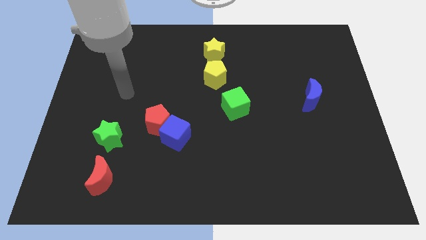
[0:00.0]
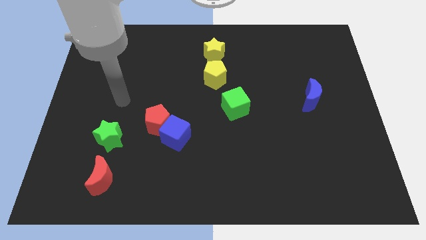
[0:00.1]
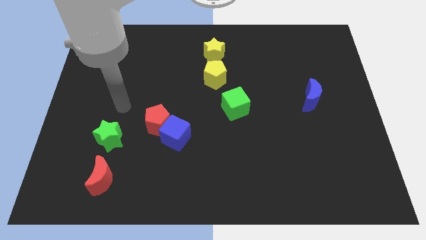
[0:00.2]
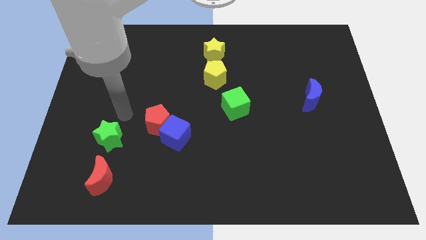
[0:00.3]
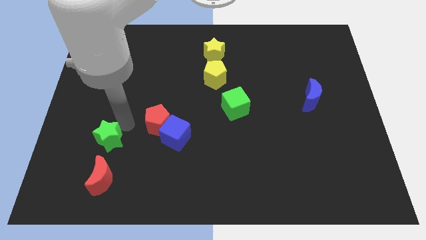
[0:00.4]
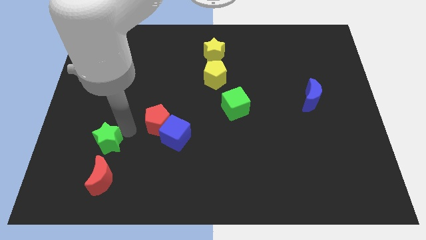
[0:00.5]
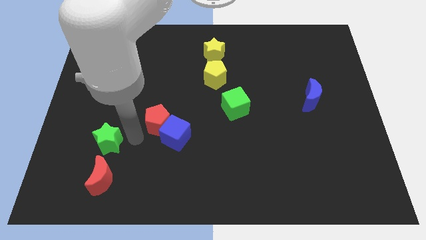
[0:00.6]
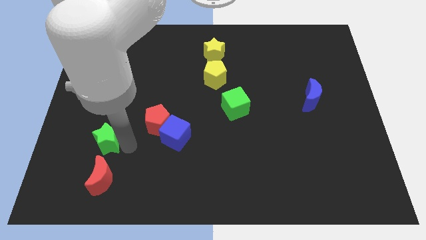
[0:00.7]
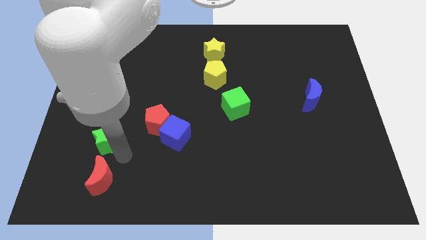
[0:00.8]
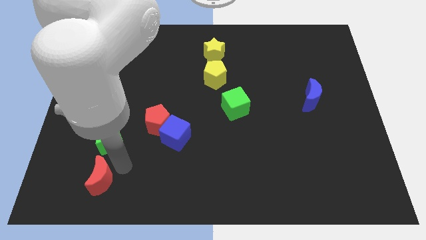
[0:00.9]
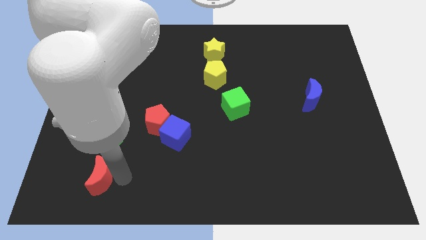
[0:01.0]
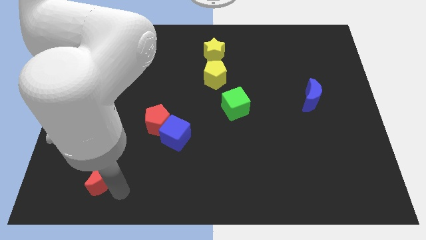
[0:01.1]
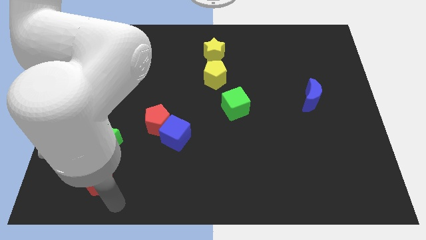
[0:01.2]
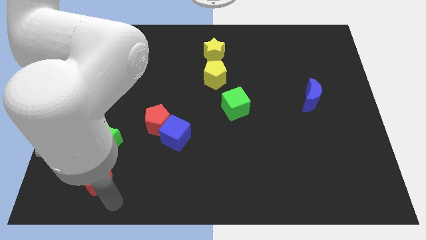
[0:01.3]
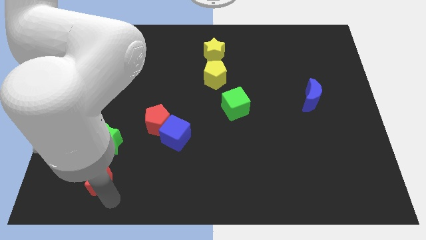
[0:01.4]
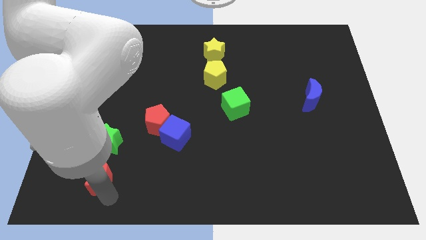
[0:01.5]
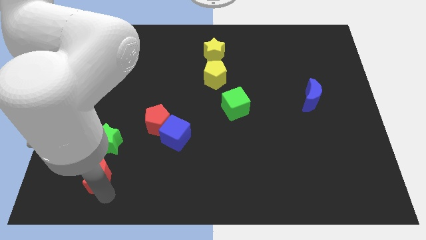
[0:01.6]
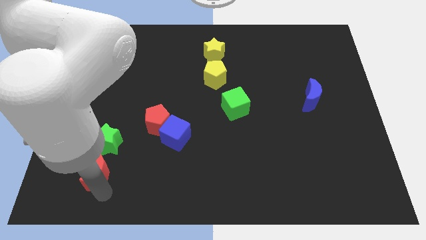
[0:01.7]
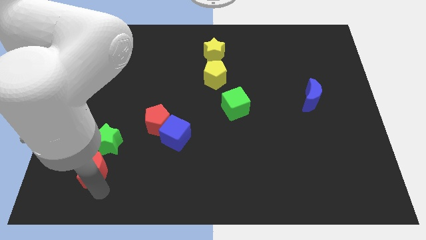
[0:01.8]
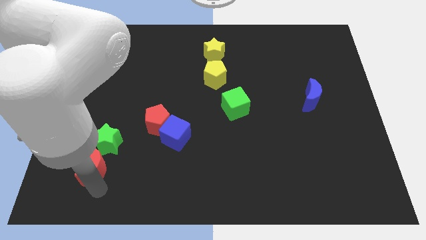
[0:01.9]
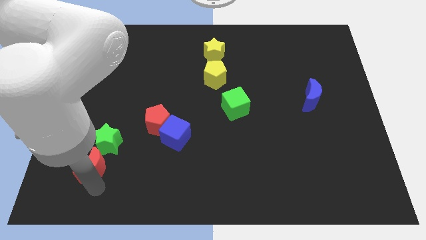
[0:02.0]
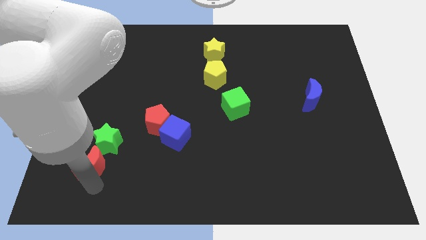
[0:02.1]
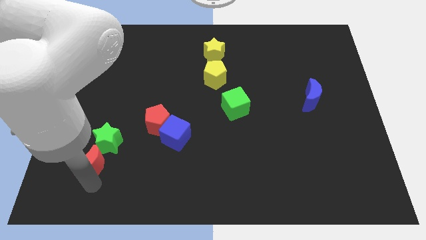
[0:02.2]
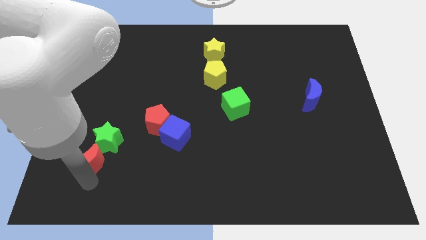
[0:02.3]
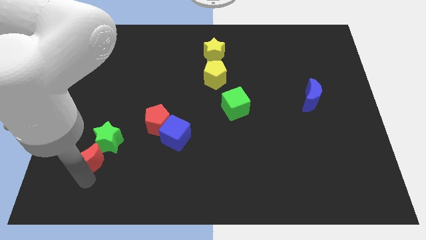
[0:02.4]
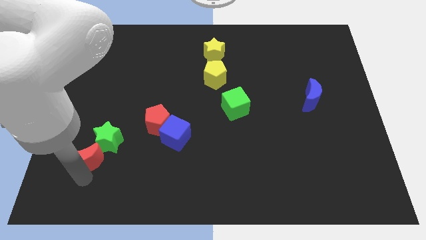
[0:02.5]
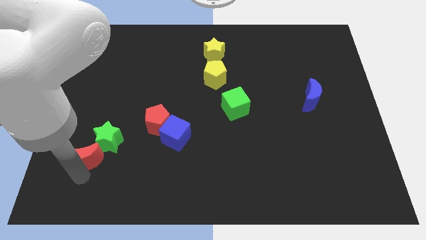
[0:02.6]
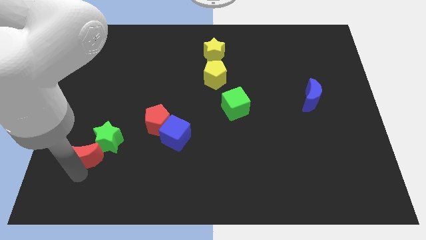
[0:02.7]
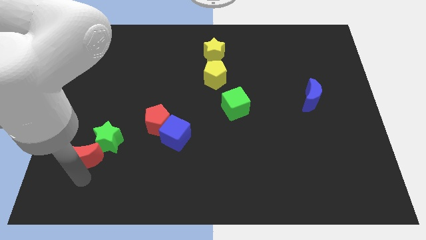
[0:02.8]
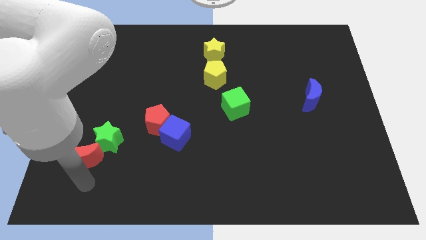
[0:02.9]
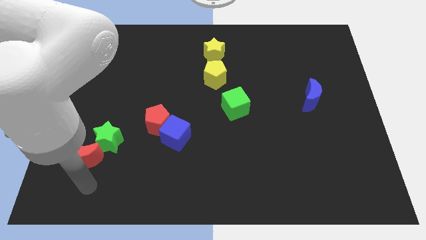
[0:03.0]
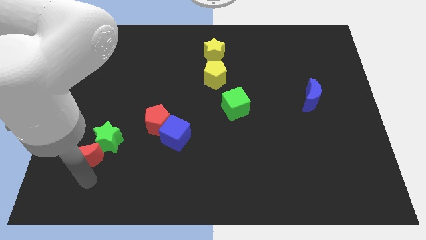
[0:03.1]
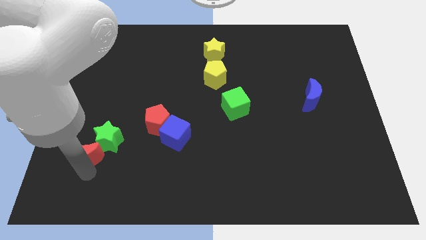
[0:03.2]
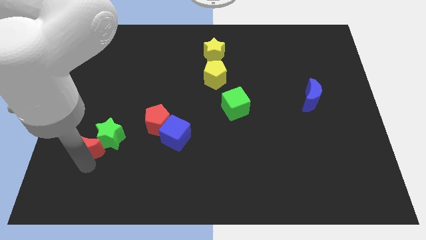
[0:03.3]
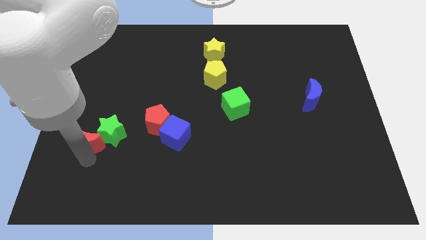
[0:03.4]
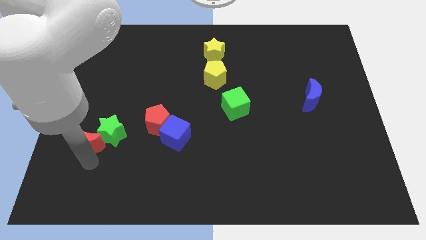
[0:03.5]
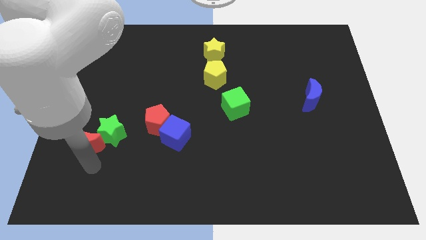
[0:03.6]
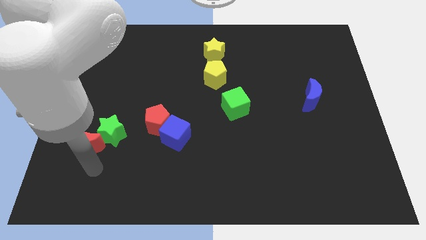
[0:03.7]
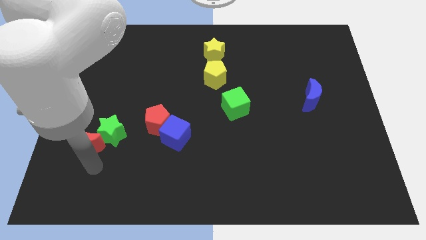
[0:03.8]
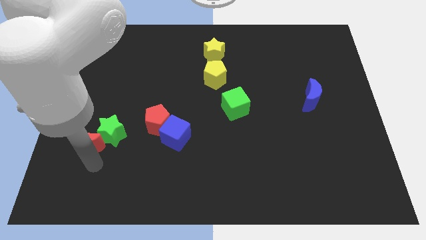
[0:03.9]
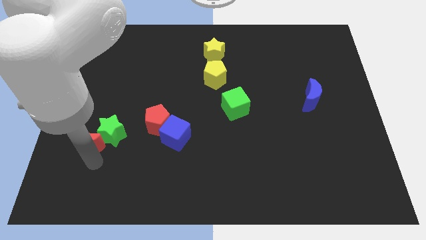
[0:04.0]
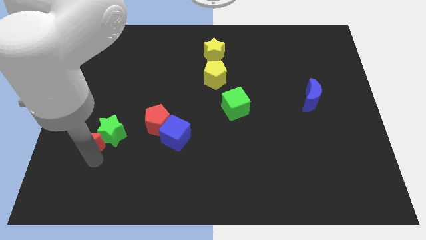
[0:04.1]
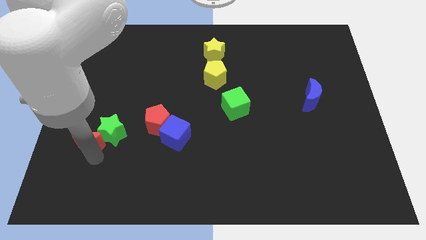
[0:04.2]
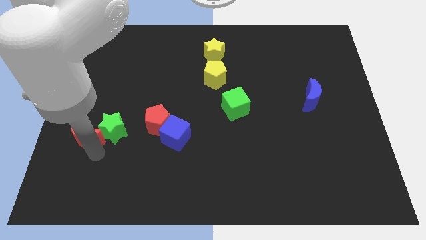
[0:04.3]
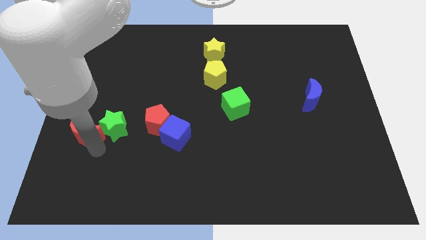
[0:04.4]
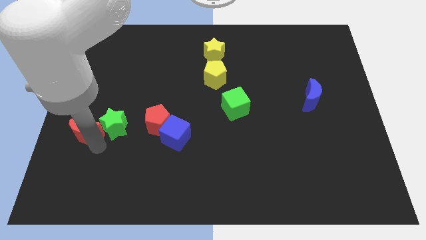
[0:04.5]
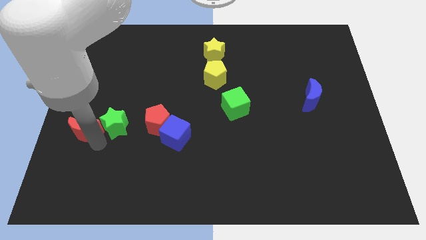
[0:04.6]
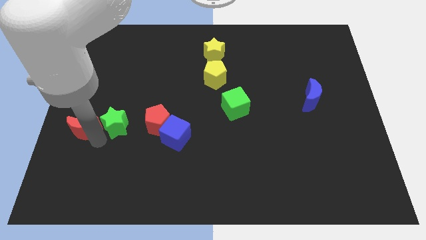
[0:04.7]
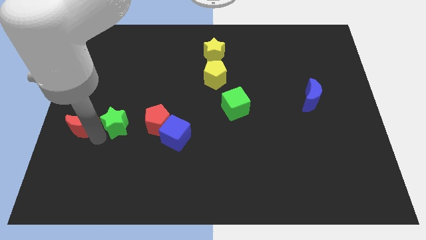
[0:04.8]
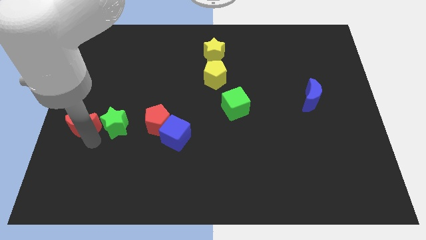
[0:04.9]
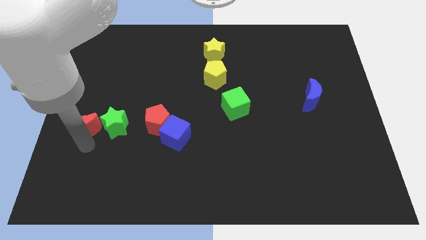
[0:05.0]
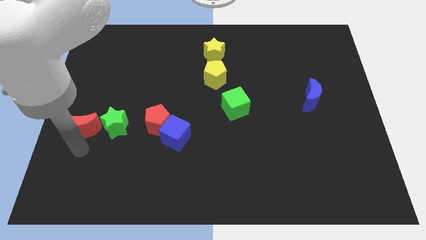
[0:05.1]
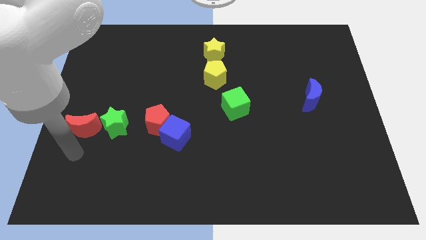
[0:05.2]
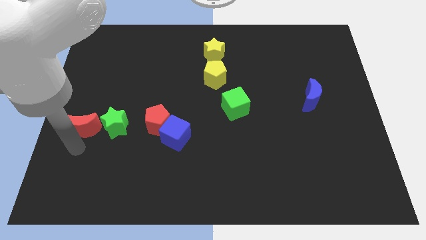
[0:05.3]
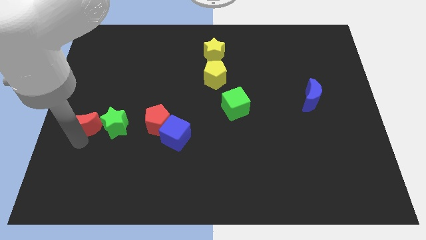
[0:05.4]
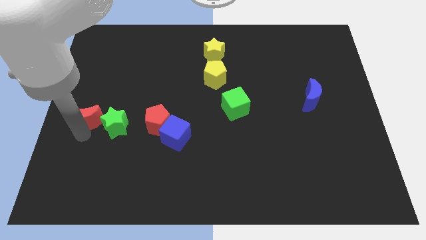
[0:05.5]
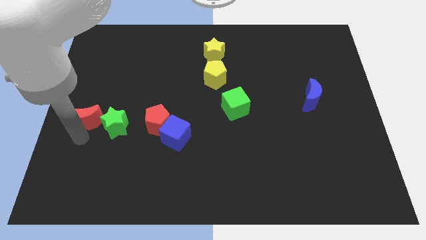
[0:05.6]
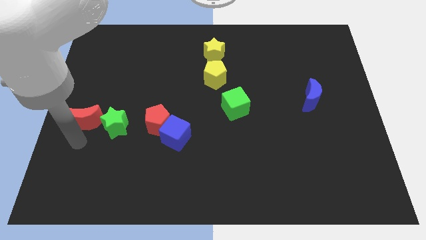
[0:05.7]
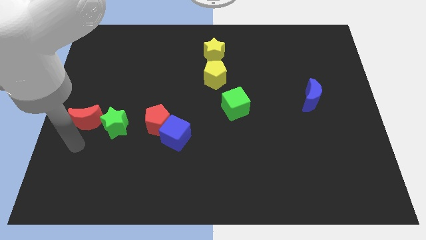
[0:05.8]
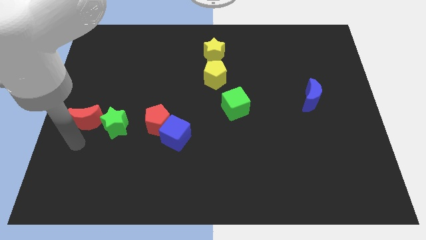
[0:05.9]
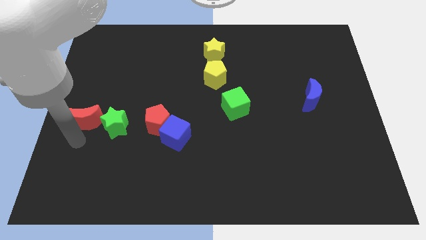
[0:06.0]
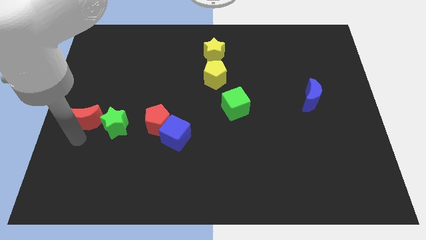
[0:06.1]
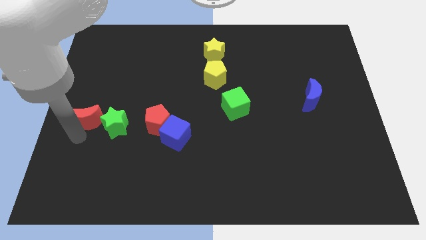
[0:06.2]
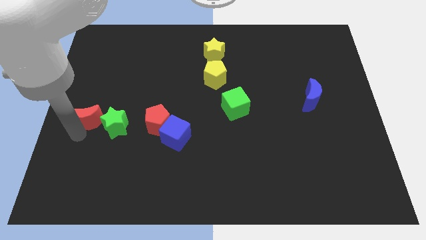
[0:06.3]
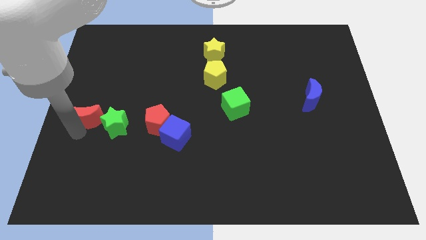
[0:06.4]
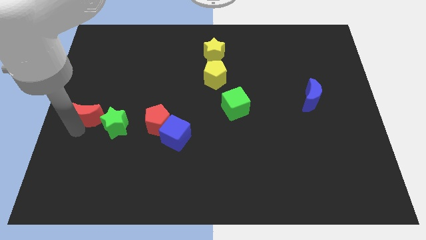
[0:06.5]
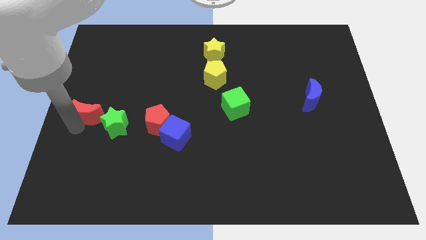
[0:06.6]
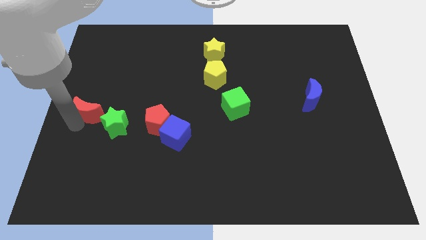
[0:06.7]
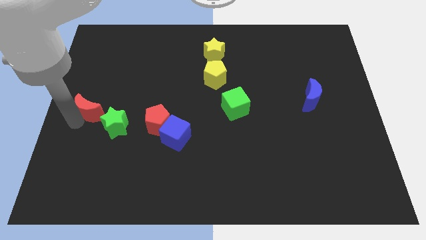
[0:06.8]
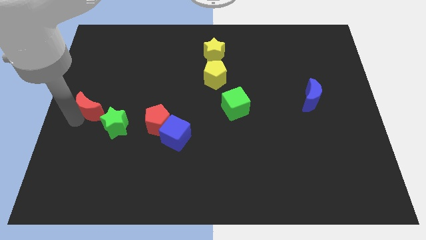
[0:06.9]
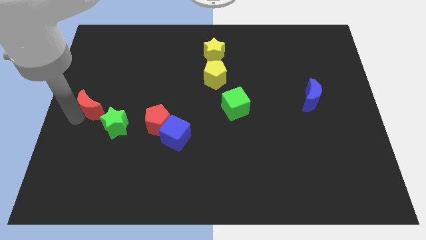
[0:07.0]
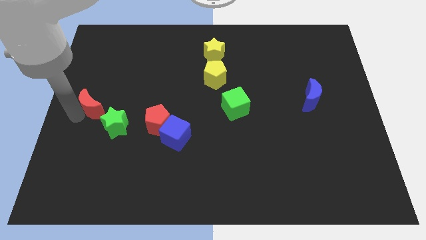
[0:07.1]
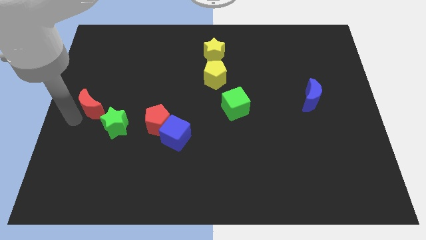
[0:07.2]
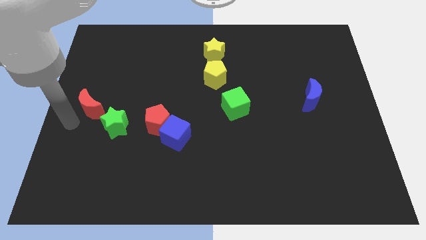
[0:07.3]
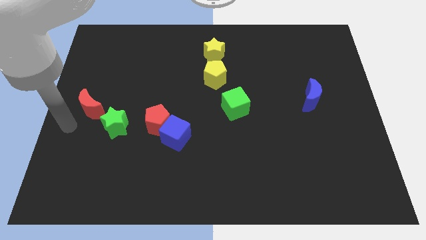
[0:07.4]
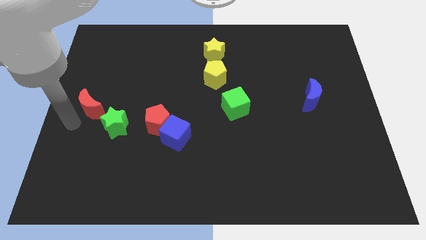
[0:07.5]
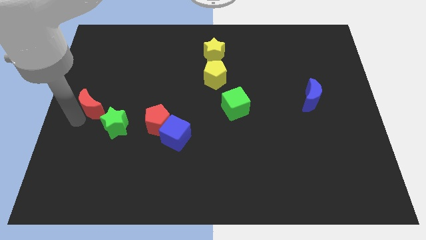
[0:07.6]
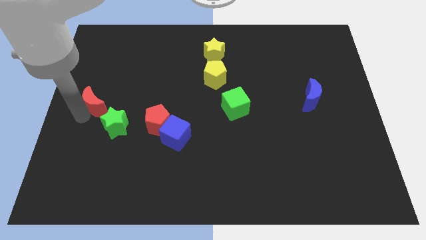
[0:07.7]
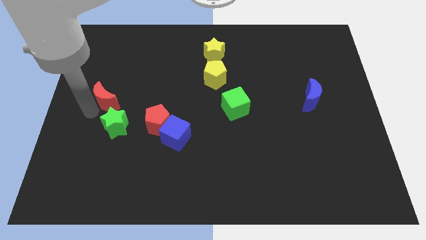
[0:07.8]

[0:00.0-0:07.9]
move the red moon up
